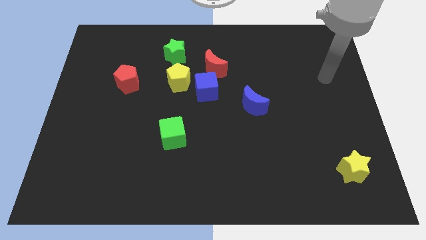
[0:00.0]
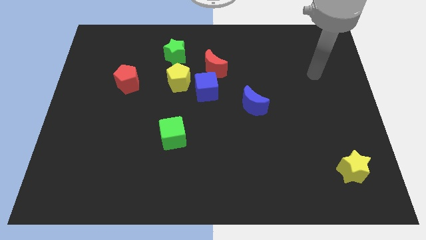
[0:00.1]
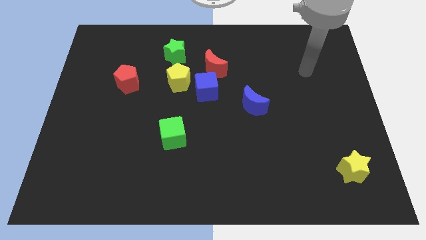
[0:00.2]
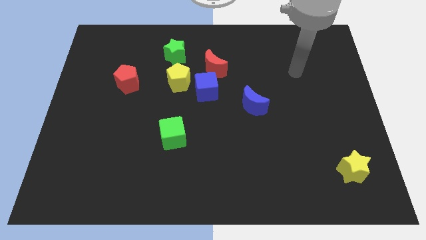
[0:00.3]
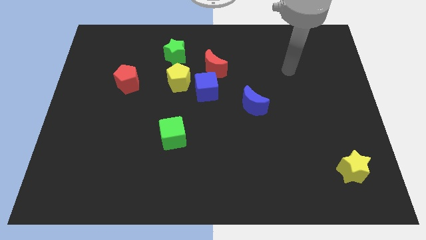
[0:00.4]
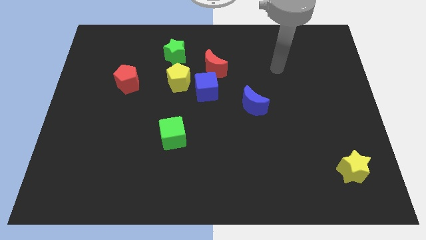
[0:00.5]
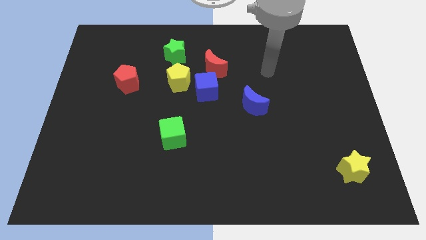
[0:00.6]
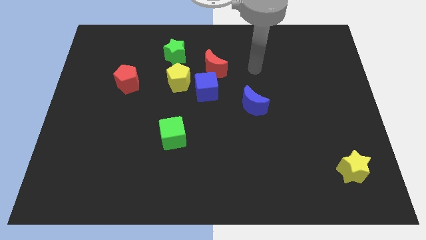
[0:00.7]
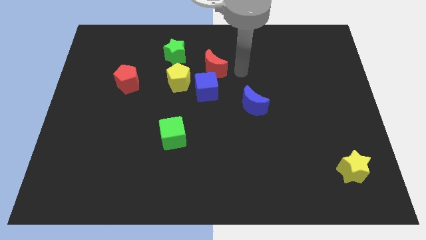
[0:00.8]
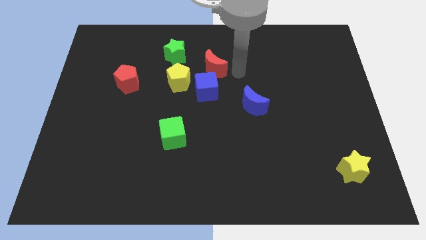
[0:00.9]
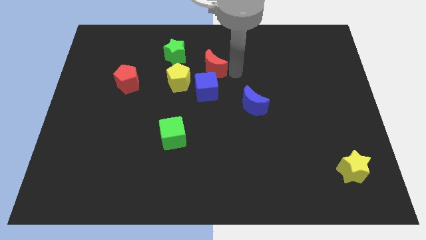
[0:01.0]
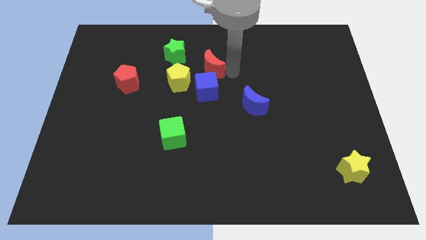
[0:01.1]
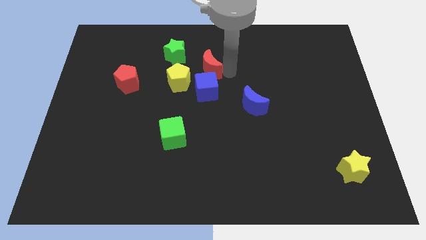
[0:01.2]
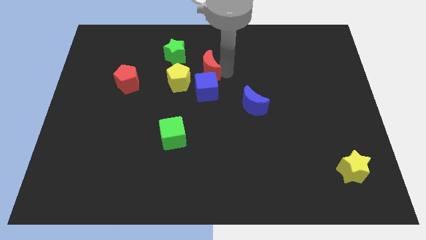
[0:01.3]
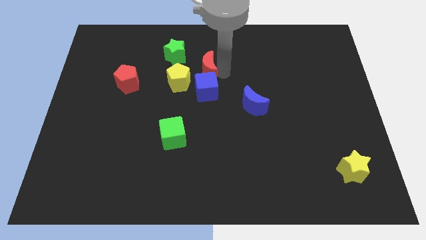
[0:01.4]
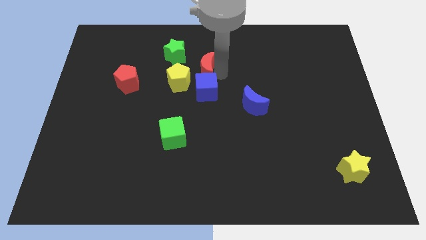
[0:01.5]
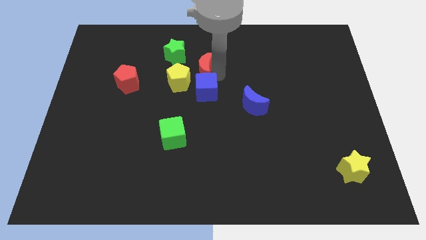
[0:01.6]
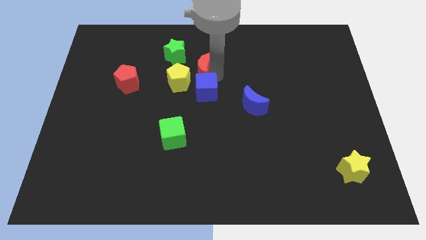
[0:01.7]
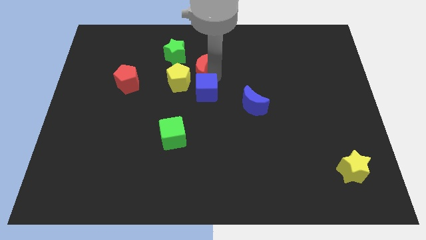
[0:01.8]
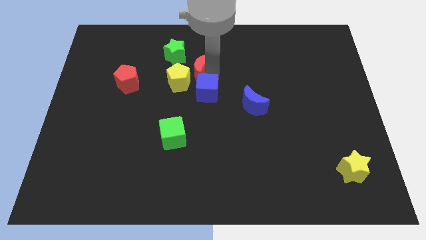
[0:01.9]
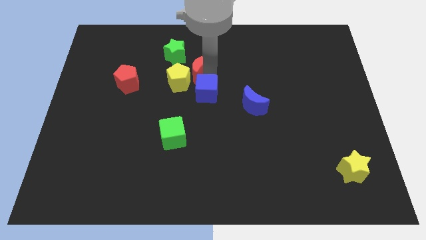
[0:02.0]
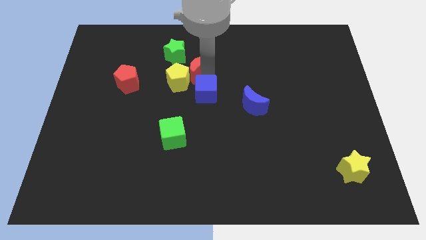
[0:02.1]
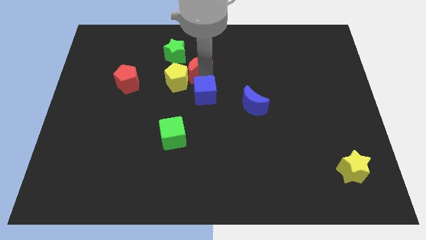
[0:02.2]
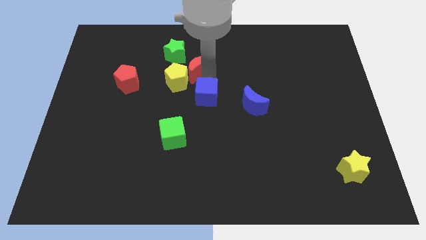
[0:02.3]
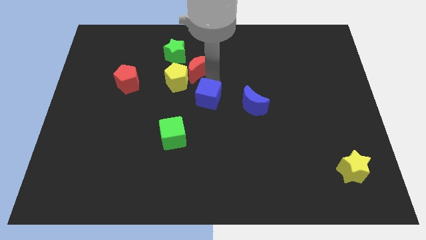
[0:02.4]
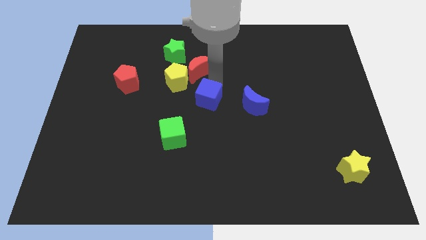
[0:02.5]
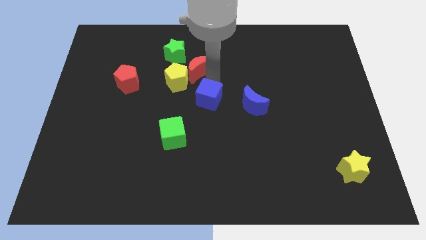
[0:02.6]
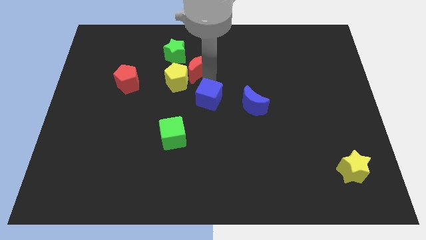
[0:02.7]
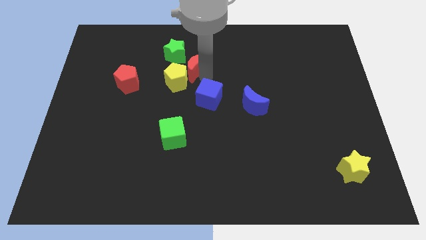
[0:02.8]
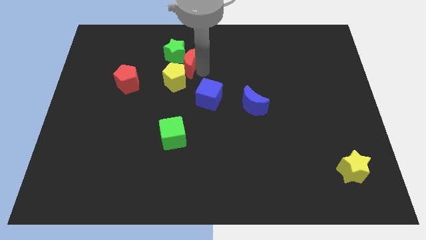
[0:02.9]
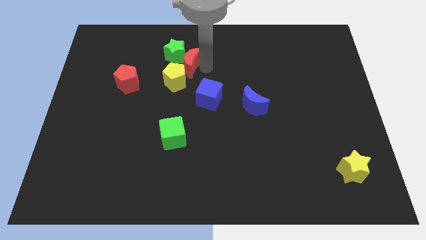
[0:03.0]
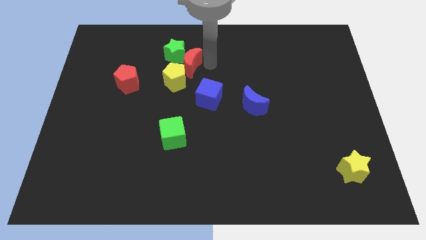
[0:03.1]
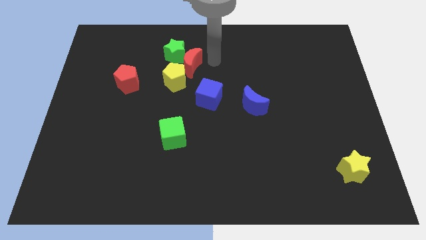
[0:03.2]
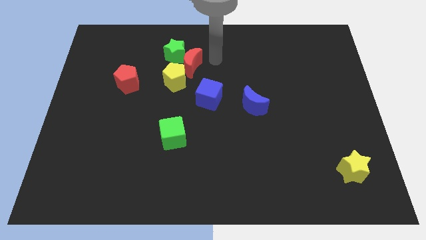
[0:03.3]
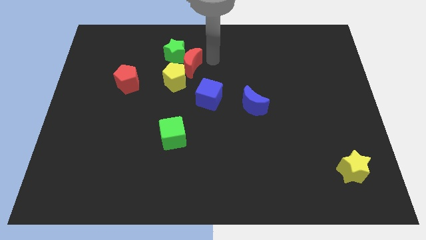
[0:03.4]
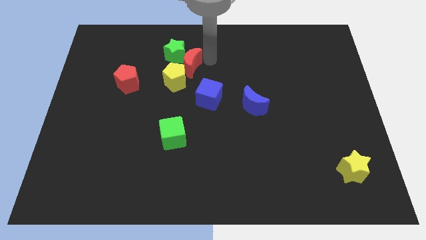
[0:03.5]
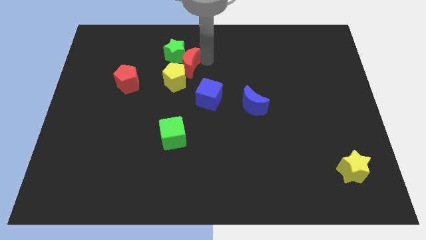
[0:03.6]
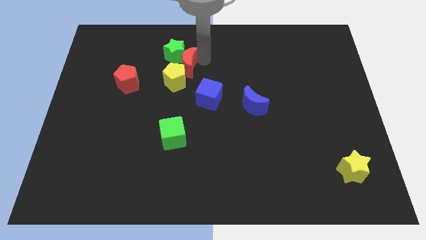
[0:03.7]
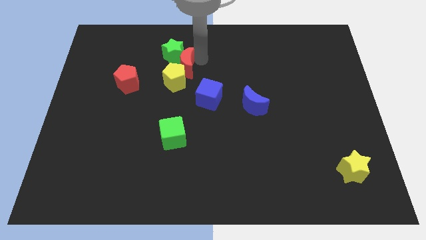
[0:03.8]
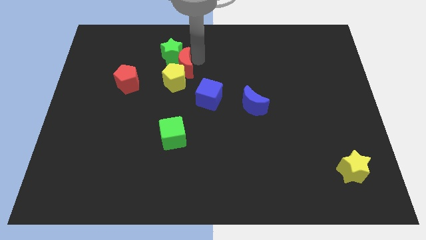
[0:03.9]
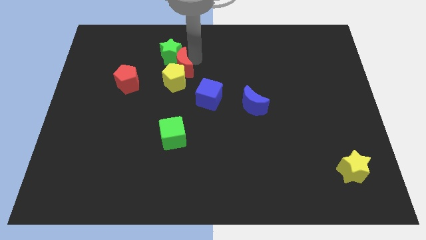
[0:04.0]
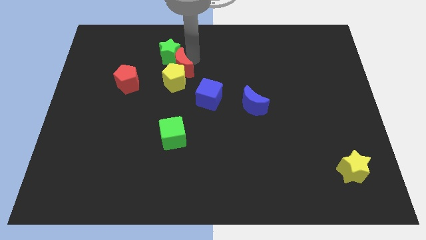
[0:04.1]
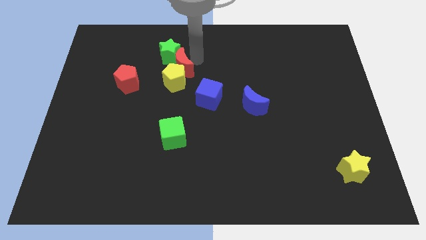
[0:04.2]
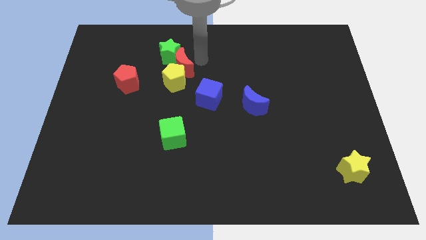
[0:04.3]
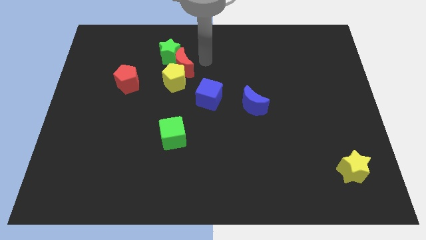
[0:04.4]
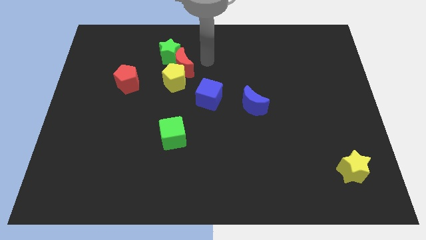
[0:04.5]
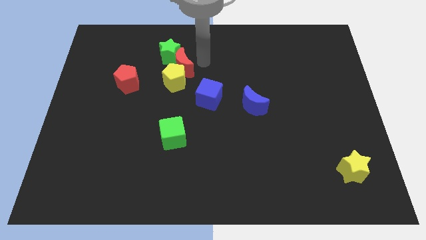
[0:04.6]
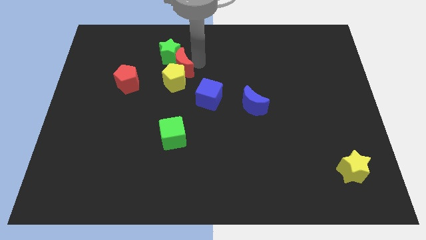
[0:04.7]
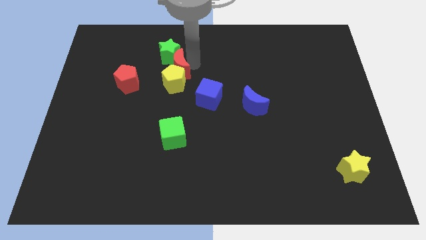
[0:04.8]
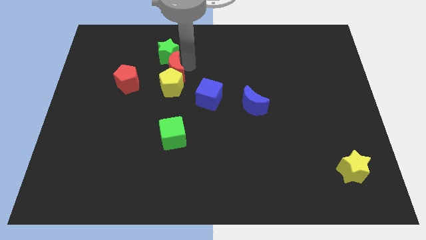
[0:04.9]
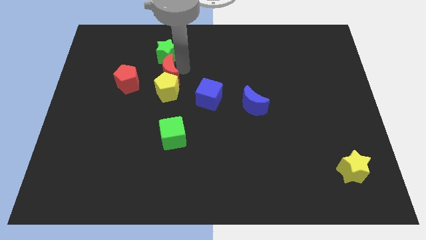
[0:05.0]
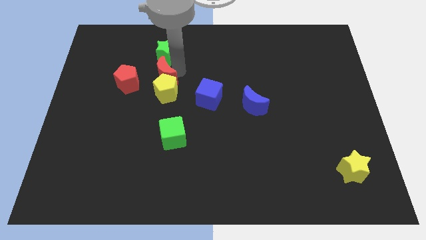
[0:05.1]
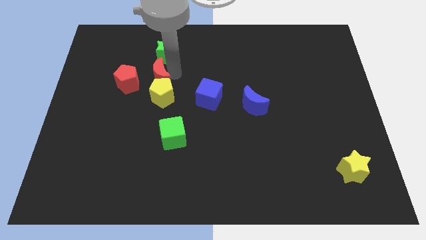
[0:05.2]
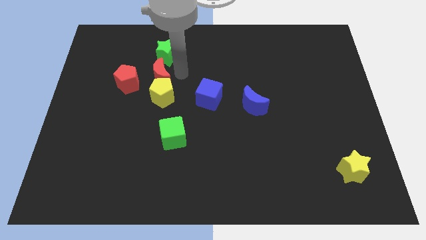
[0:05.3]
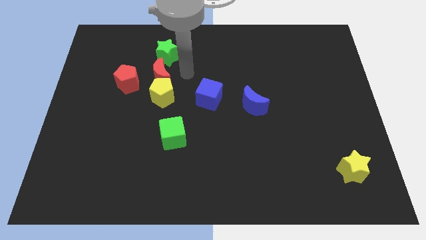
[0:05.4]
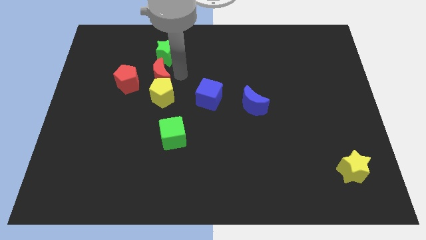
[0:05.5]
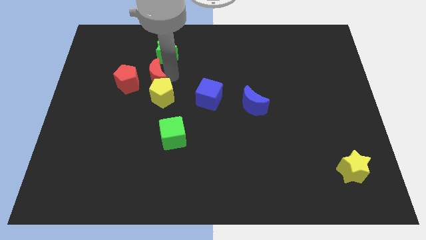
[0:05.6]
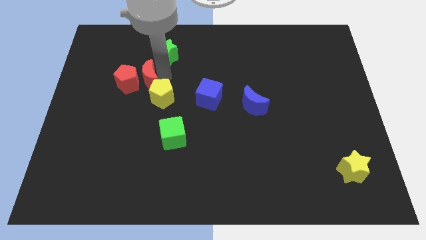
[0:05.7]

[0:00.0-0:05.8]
slide the red moon next to the red pentagon

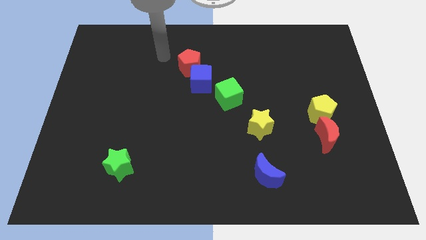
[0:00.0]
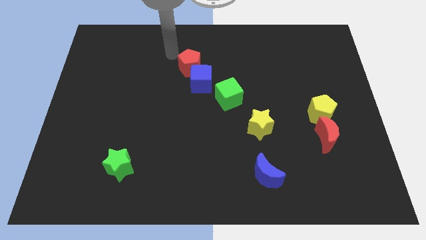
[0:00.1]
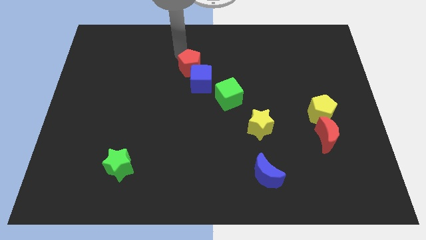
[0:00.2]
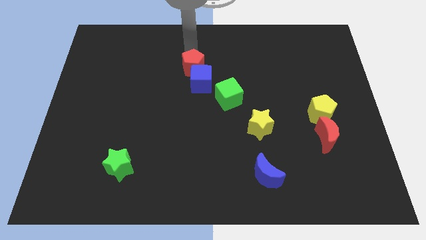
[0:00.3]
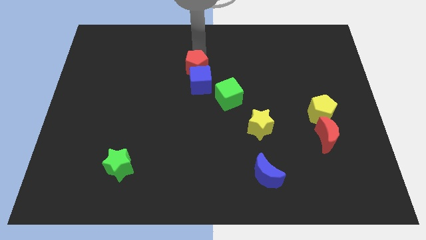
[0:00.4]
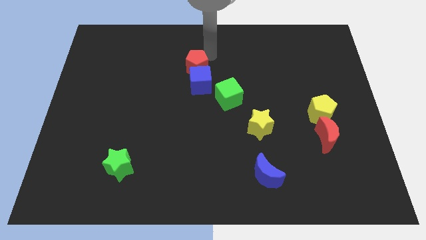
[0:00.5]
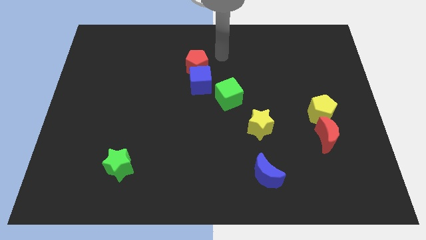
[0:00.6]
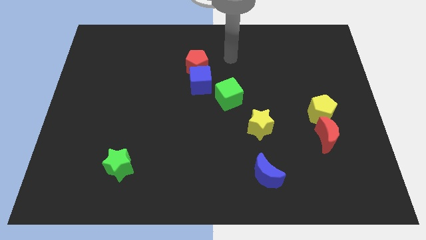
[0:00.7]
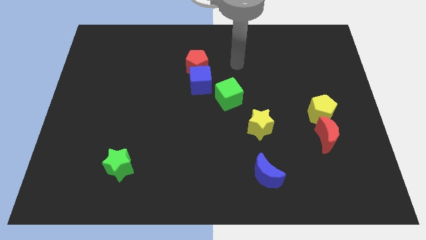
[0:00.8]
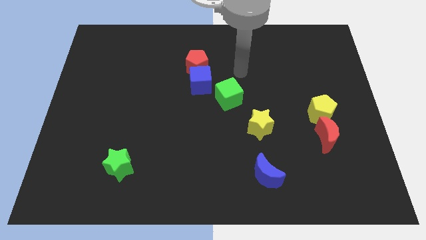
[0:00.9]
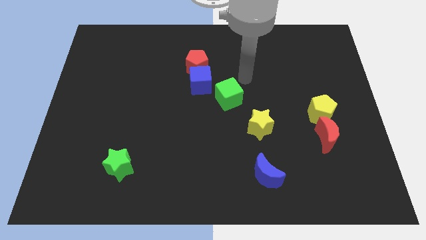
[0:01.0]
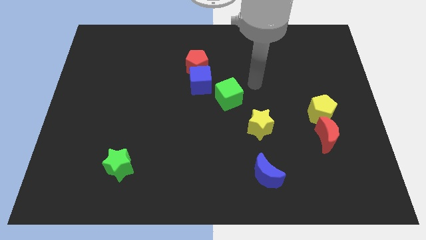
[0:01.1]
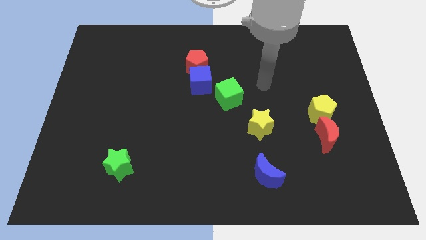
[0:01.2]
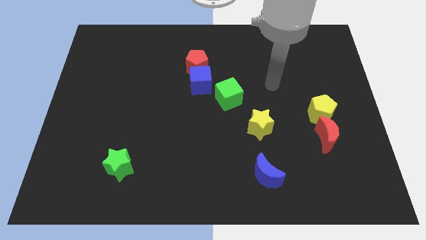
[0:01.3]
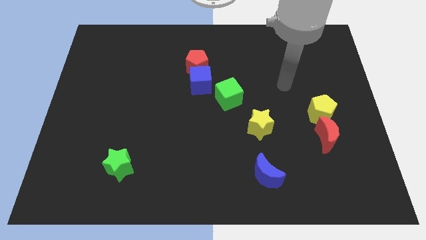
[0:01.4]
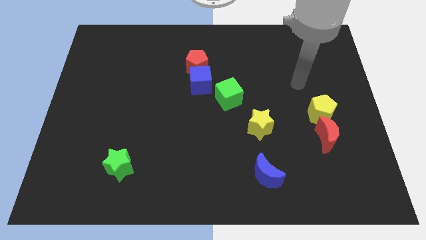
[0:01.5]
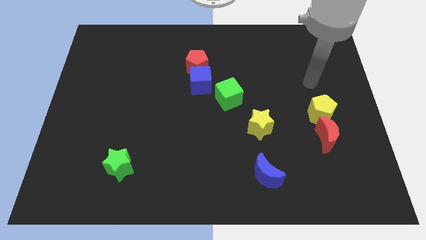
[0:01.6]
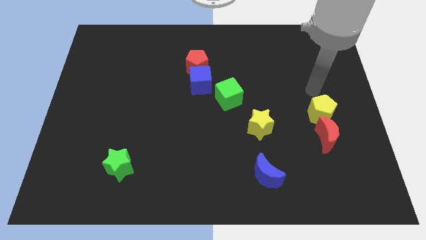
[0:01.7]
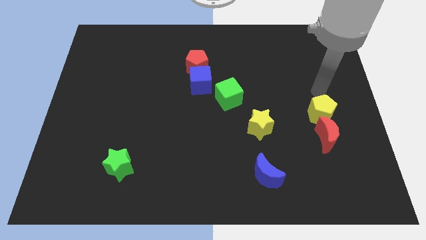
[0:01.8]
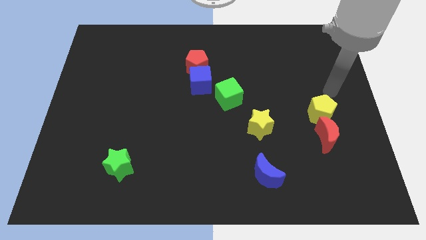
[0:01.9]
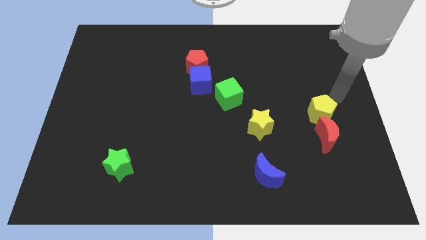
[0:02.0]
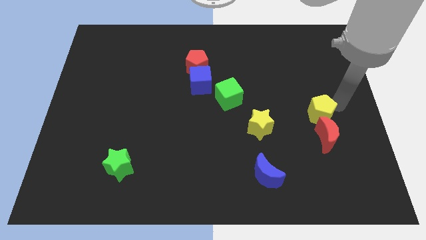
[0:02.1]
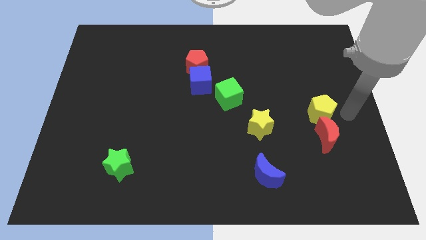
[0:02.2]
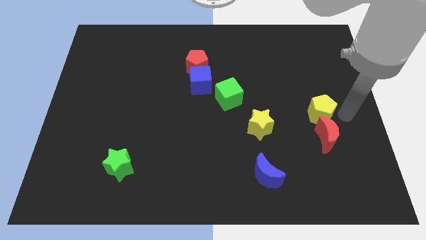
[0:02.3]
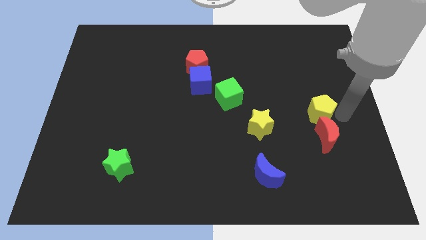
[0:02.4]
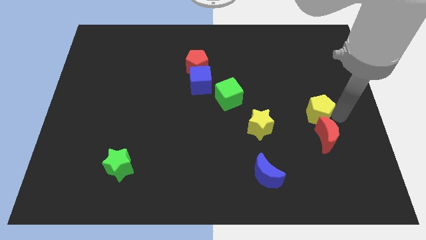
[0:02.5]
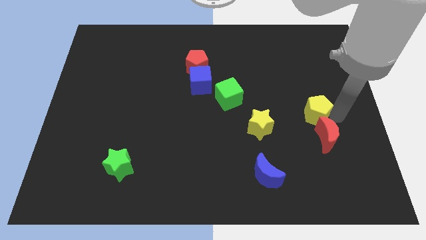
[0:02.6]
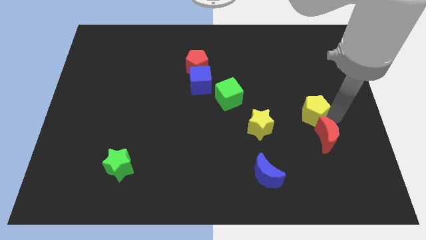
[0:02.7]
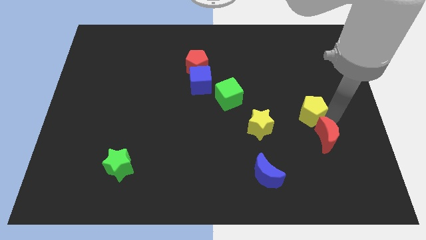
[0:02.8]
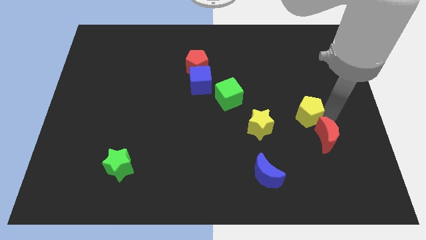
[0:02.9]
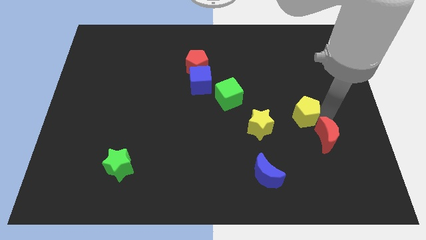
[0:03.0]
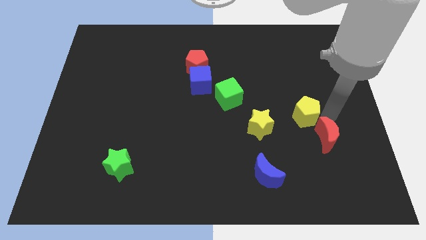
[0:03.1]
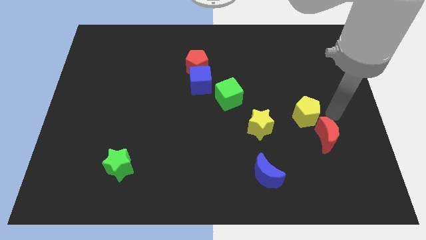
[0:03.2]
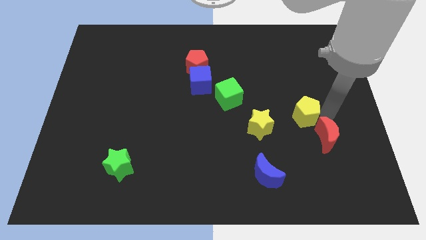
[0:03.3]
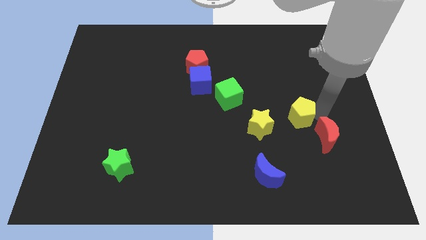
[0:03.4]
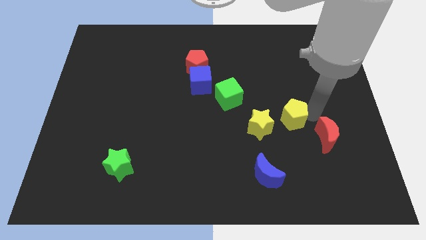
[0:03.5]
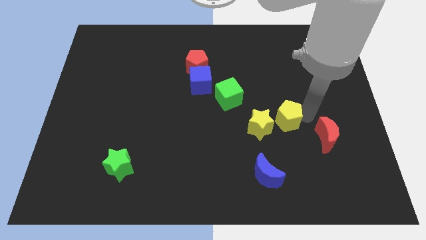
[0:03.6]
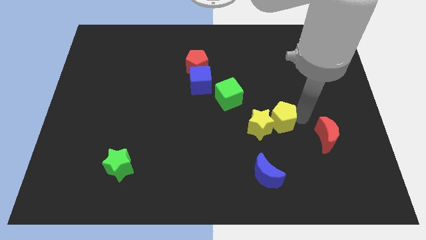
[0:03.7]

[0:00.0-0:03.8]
put the yellow pentagon towards the yellow star
